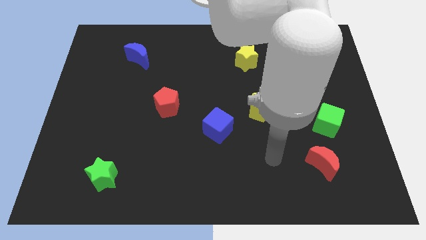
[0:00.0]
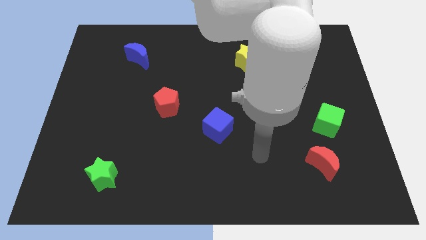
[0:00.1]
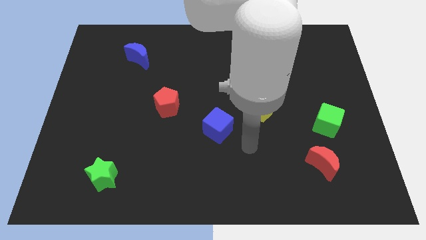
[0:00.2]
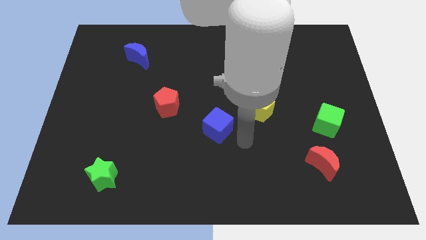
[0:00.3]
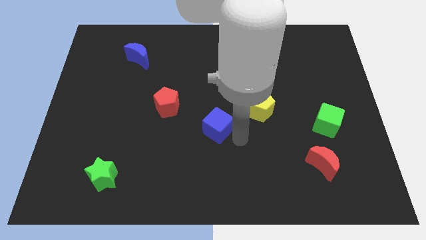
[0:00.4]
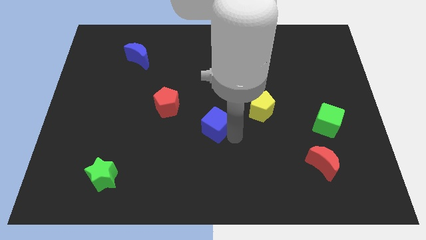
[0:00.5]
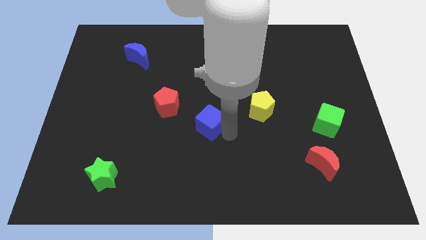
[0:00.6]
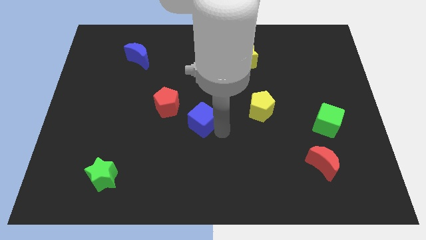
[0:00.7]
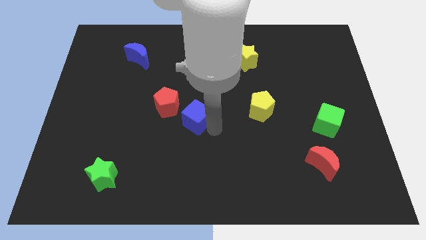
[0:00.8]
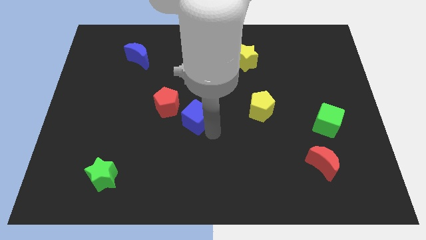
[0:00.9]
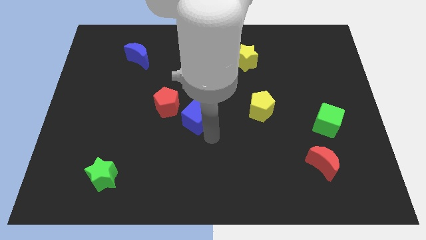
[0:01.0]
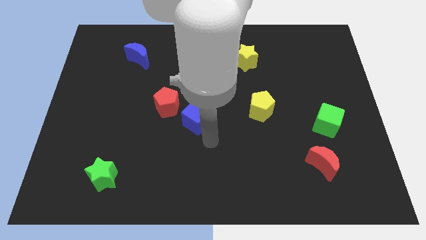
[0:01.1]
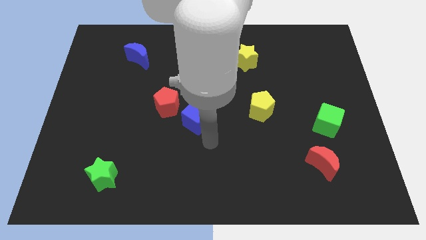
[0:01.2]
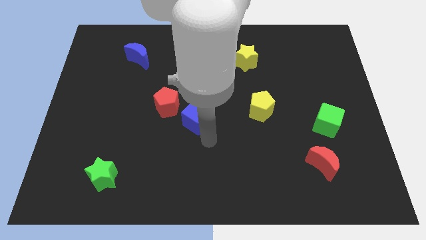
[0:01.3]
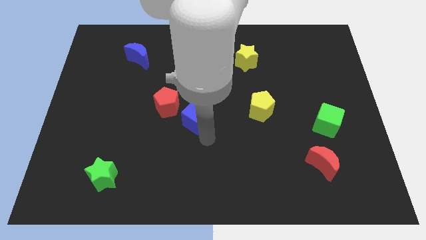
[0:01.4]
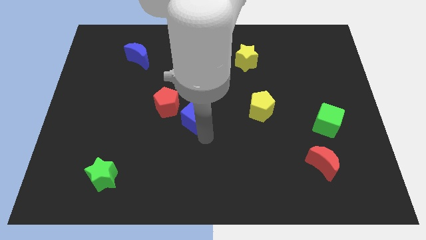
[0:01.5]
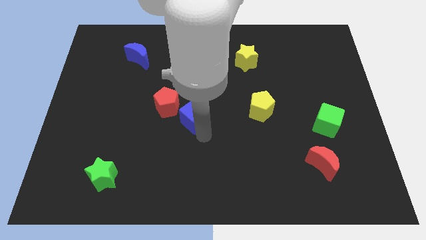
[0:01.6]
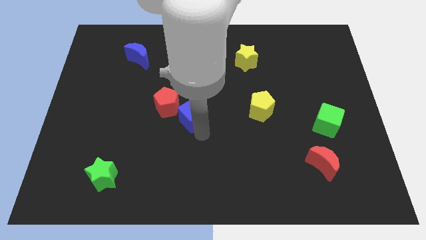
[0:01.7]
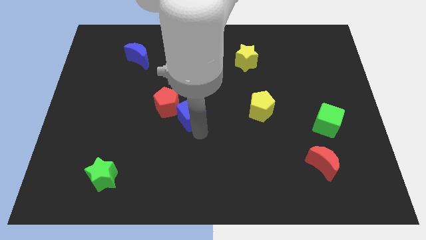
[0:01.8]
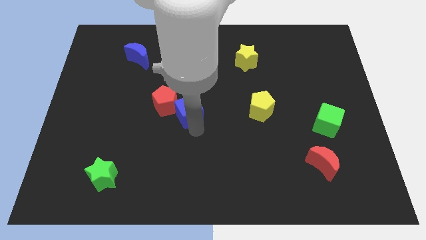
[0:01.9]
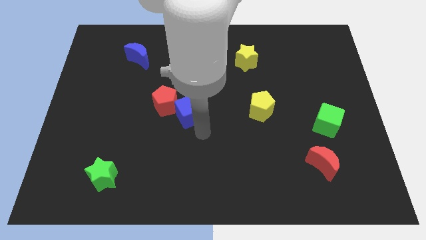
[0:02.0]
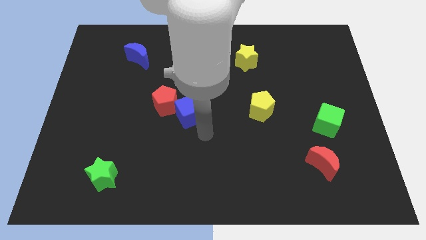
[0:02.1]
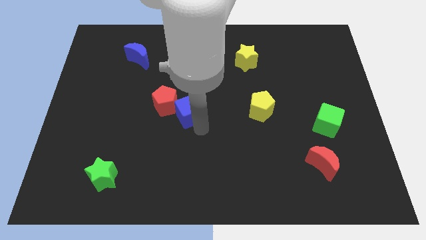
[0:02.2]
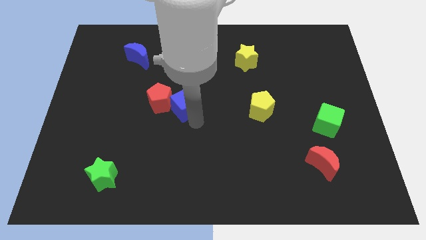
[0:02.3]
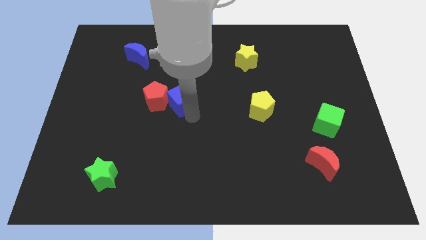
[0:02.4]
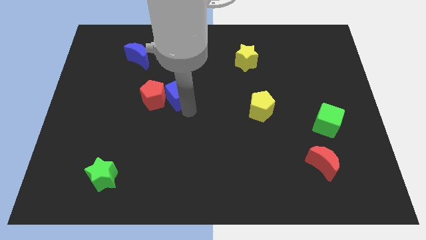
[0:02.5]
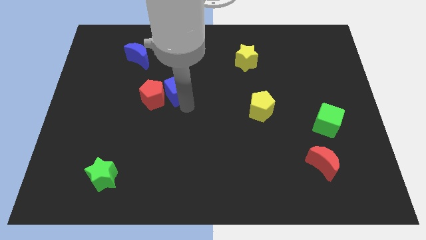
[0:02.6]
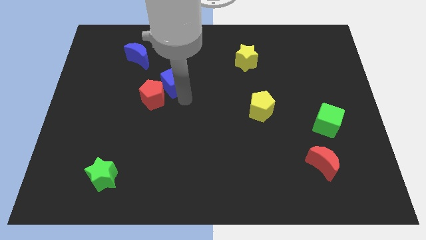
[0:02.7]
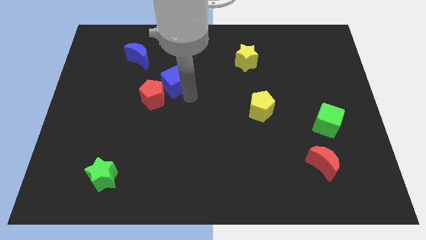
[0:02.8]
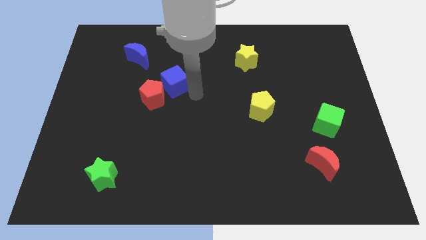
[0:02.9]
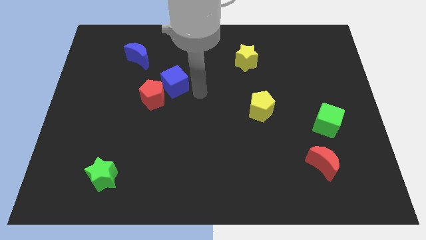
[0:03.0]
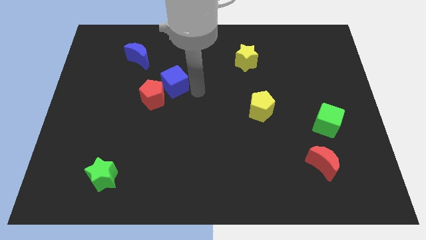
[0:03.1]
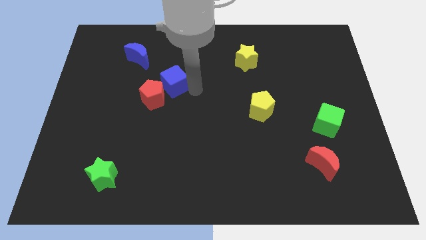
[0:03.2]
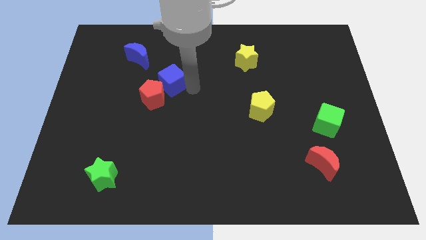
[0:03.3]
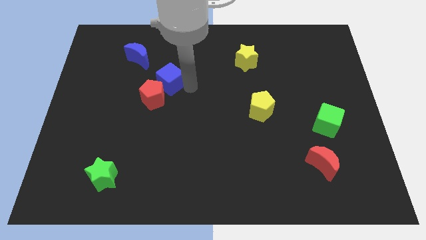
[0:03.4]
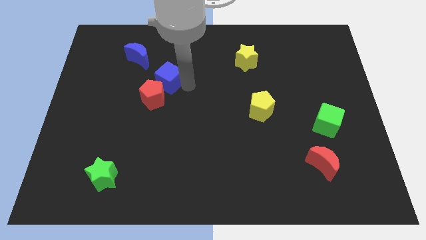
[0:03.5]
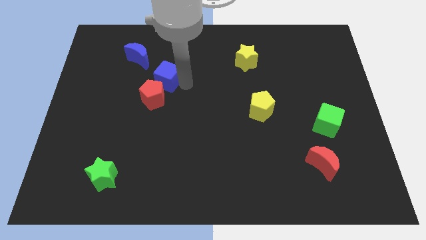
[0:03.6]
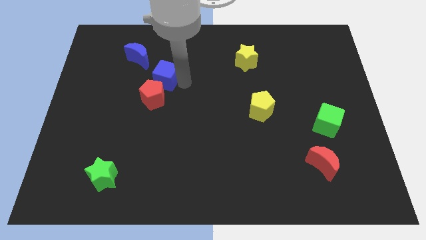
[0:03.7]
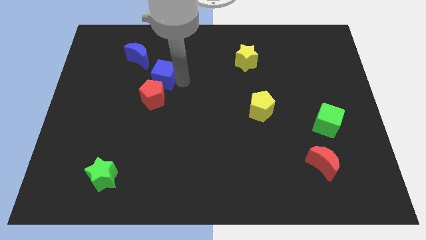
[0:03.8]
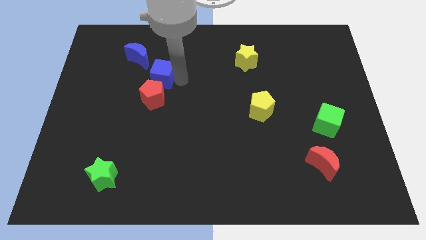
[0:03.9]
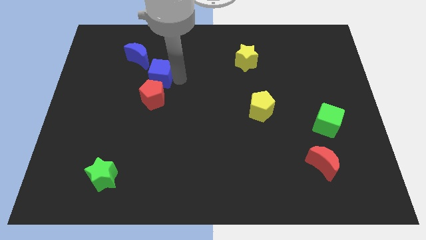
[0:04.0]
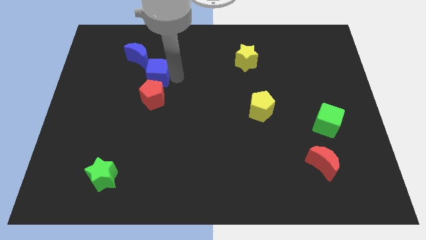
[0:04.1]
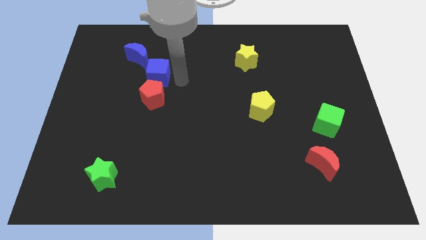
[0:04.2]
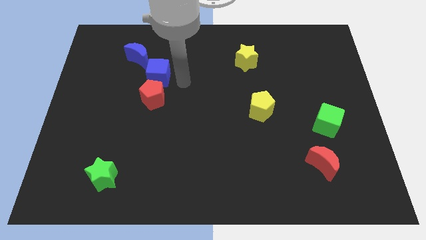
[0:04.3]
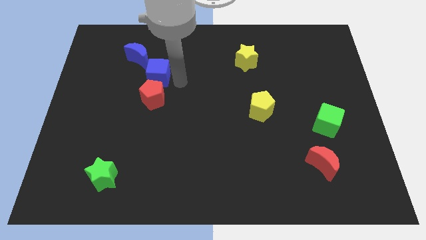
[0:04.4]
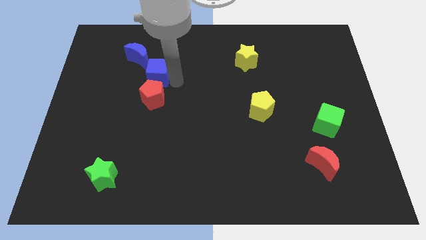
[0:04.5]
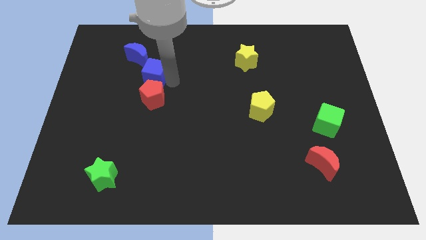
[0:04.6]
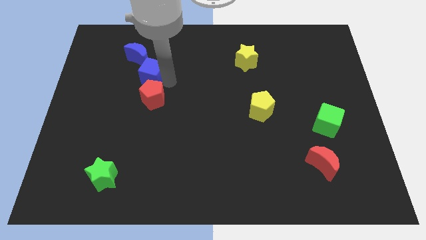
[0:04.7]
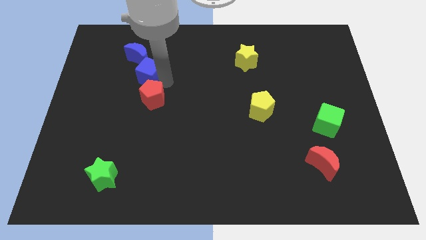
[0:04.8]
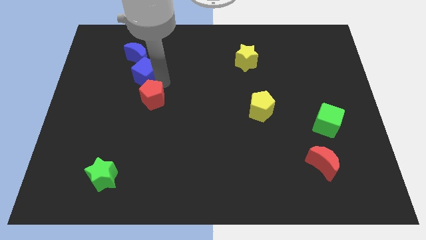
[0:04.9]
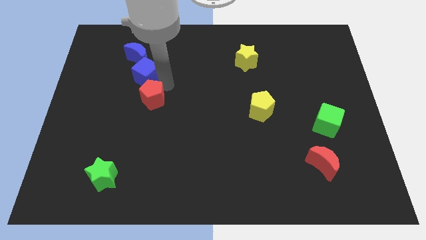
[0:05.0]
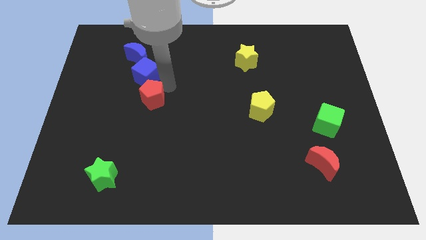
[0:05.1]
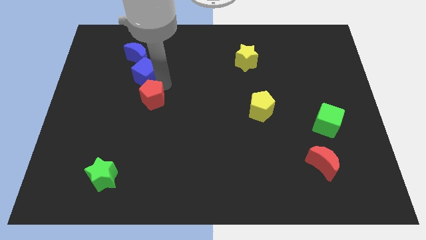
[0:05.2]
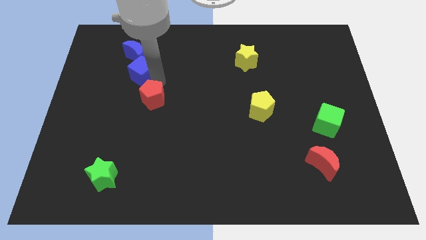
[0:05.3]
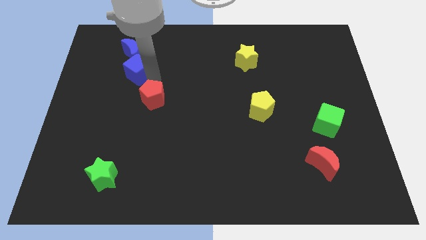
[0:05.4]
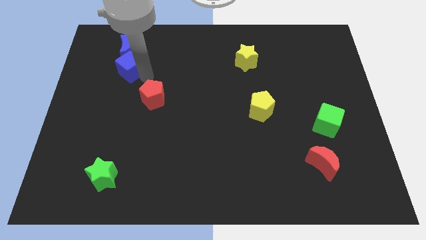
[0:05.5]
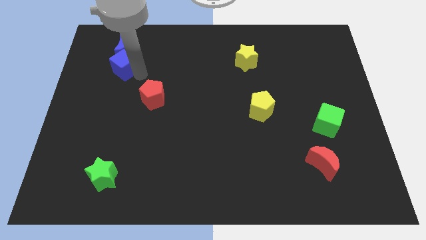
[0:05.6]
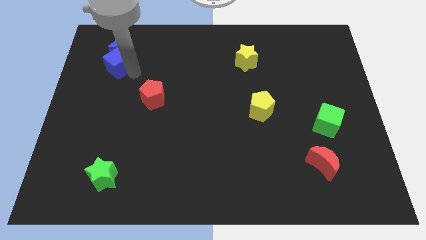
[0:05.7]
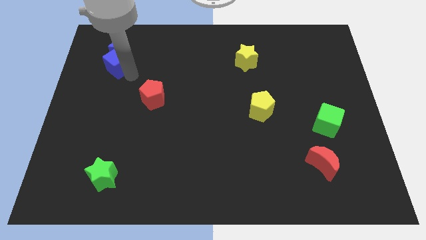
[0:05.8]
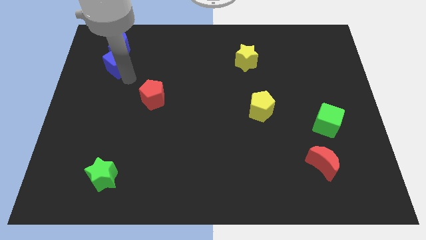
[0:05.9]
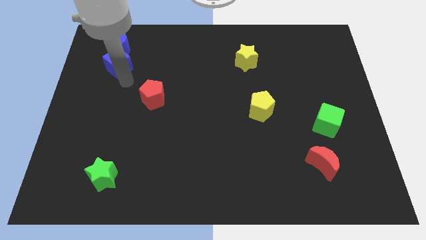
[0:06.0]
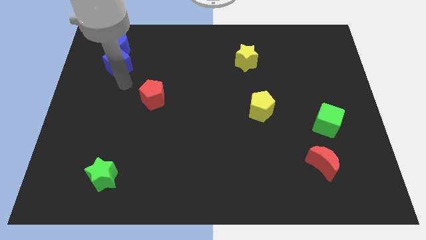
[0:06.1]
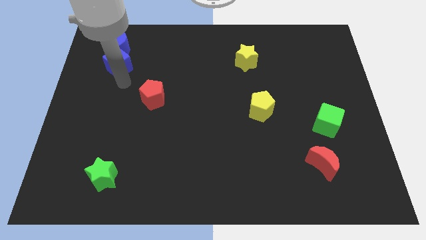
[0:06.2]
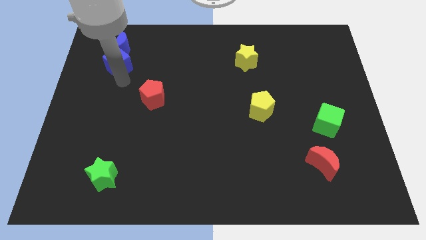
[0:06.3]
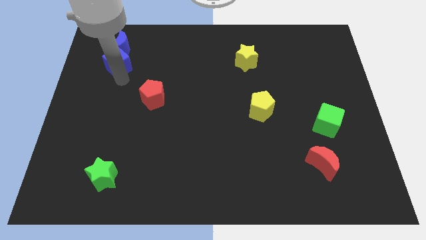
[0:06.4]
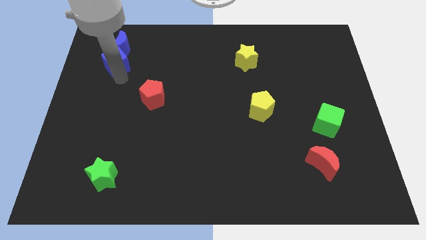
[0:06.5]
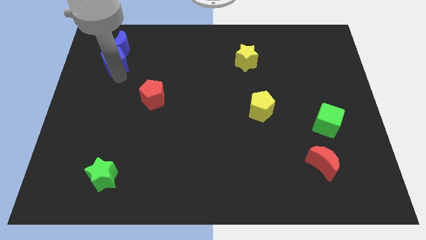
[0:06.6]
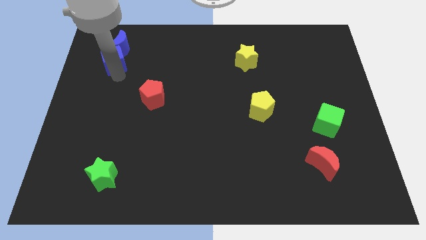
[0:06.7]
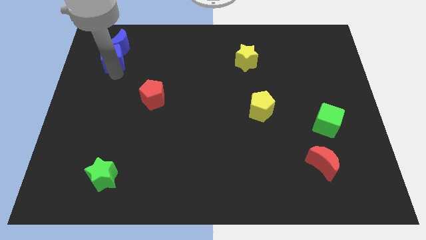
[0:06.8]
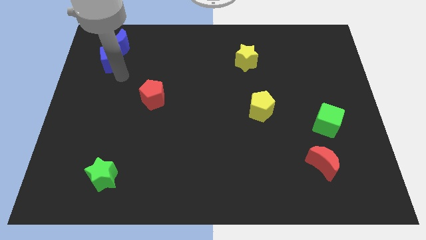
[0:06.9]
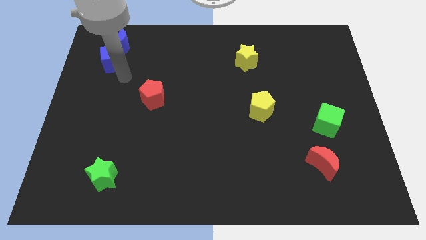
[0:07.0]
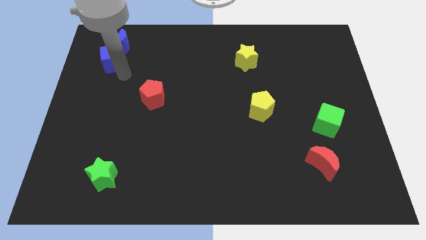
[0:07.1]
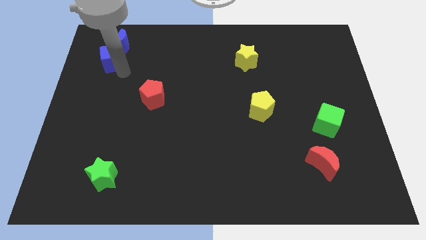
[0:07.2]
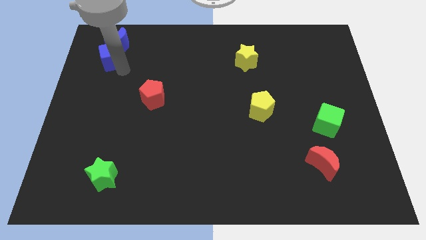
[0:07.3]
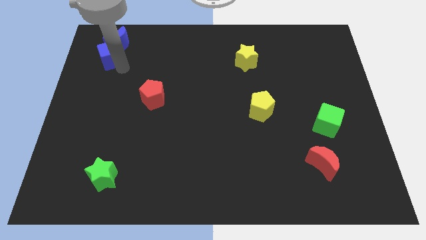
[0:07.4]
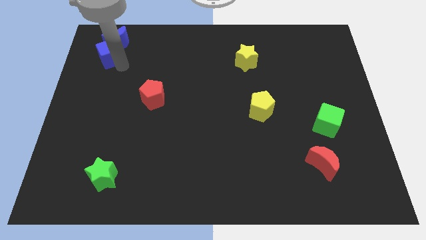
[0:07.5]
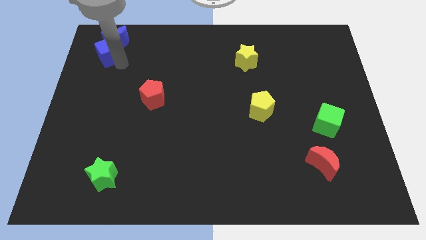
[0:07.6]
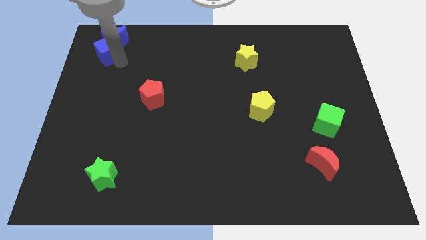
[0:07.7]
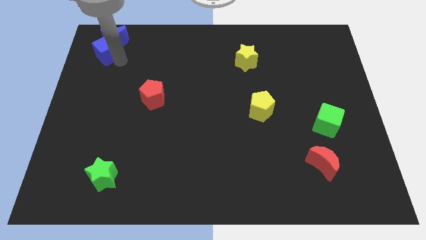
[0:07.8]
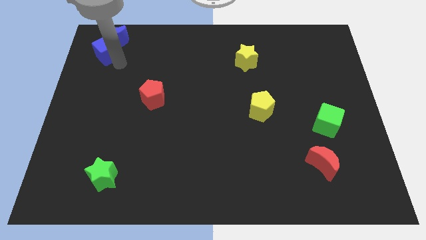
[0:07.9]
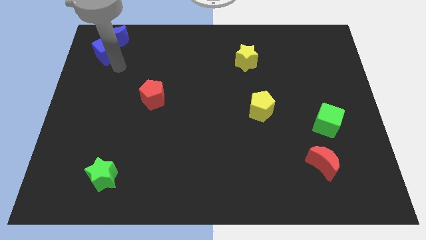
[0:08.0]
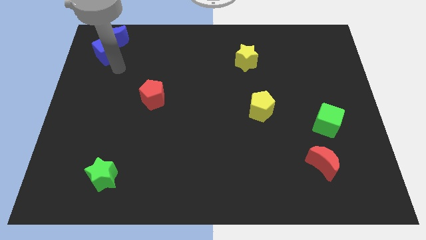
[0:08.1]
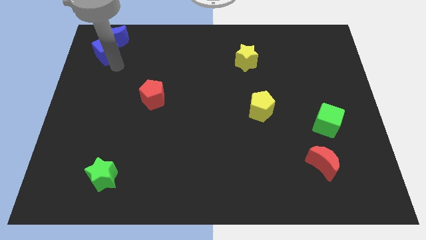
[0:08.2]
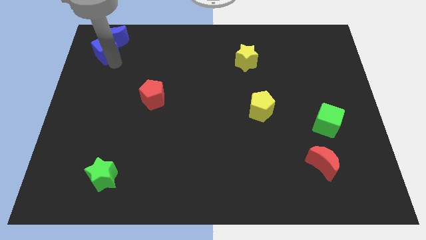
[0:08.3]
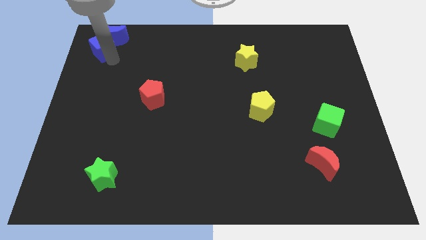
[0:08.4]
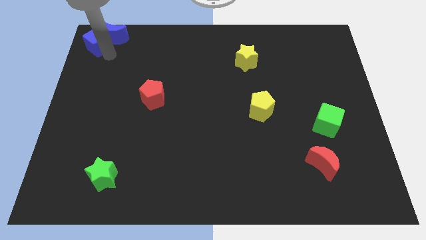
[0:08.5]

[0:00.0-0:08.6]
slide the blue cube to the top left corner
